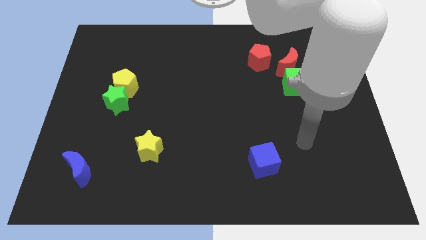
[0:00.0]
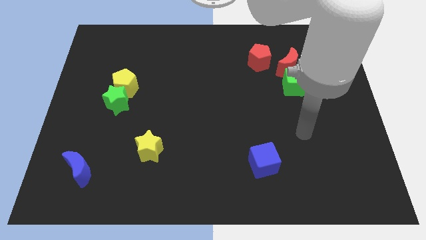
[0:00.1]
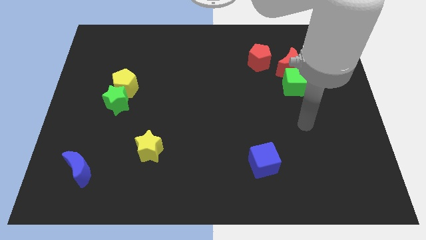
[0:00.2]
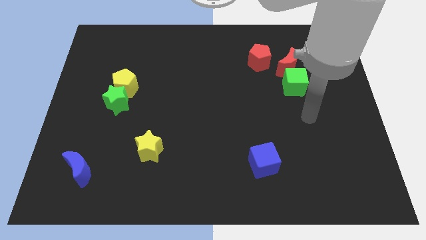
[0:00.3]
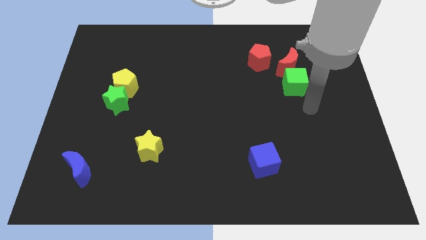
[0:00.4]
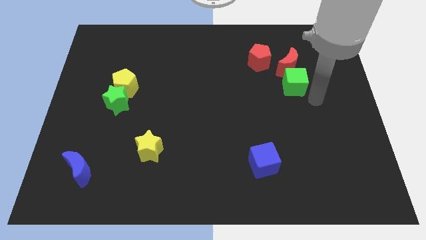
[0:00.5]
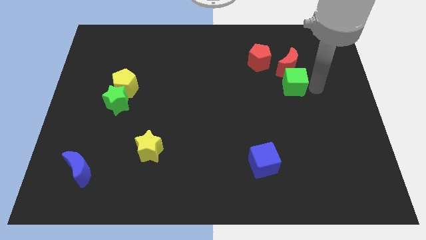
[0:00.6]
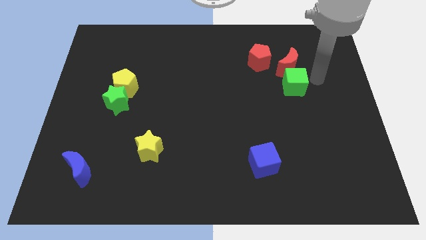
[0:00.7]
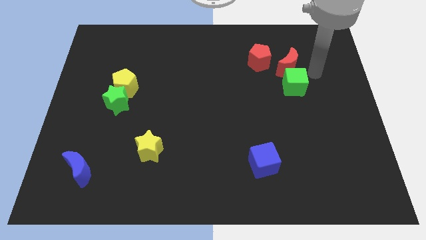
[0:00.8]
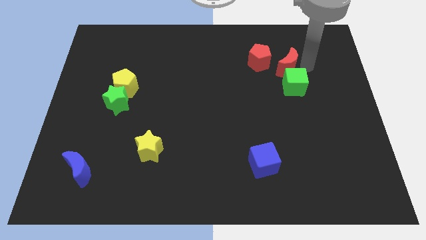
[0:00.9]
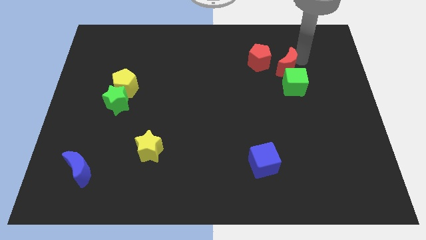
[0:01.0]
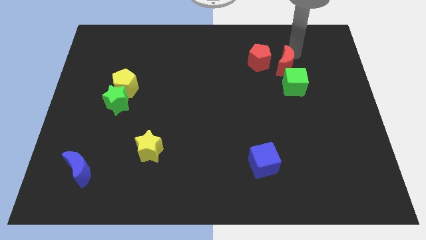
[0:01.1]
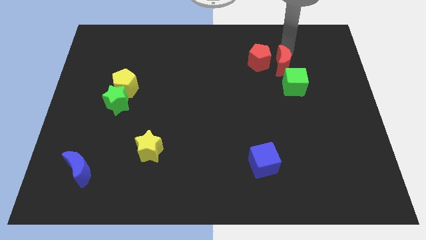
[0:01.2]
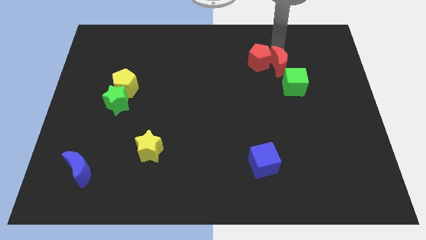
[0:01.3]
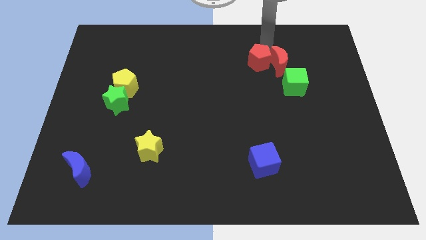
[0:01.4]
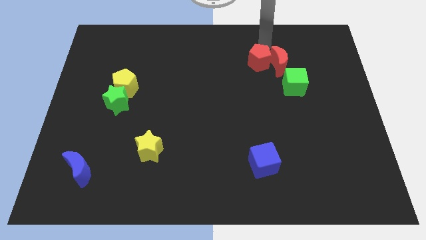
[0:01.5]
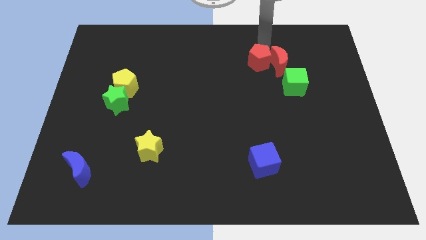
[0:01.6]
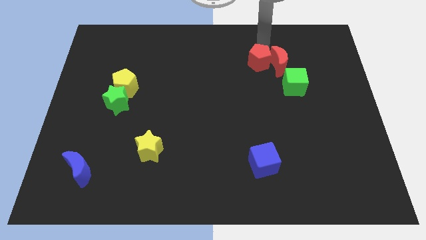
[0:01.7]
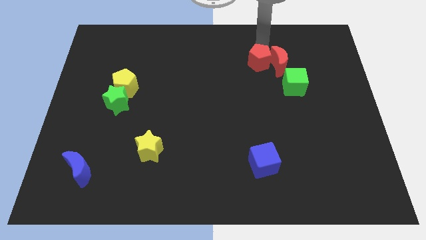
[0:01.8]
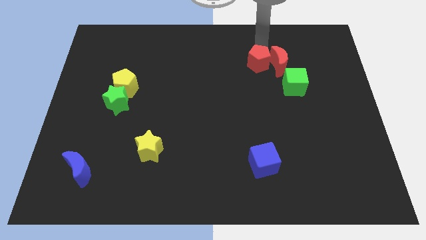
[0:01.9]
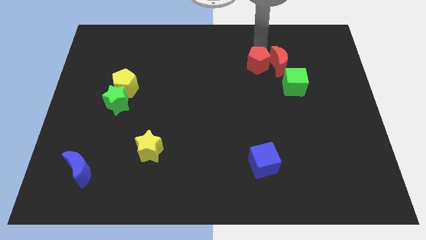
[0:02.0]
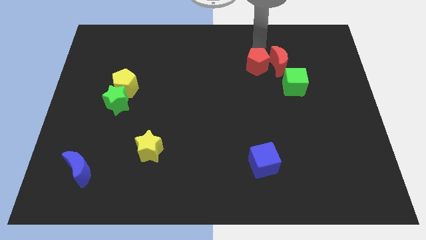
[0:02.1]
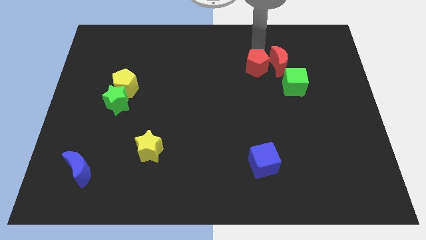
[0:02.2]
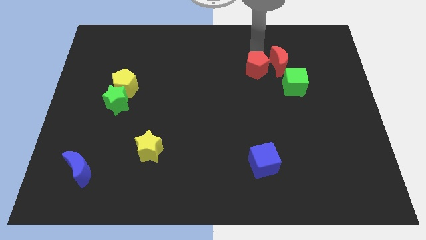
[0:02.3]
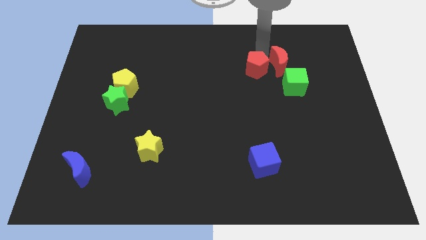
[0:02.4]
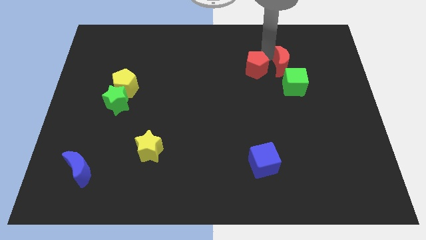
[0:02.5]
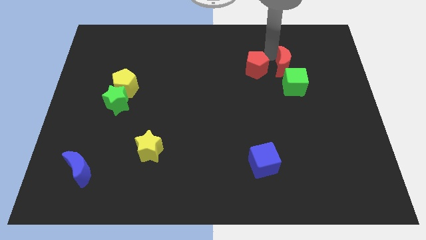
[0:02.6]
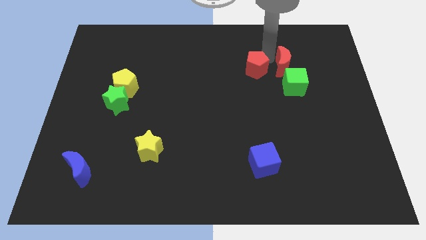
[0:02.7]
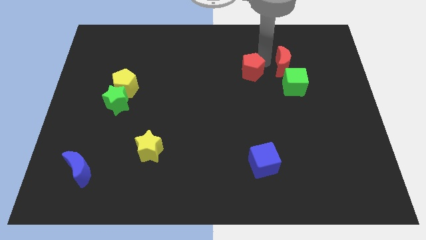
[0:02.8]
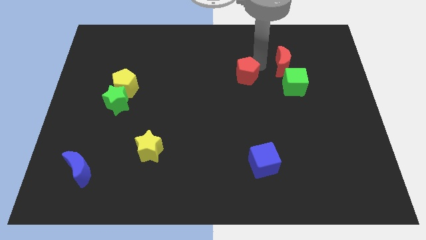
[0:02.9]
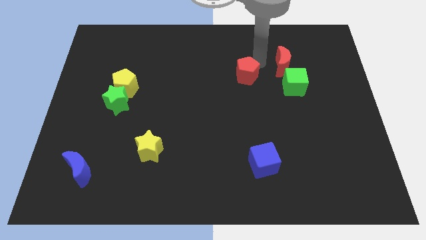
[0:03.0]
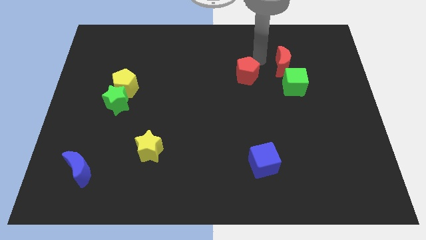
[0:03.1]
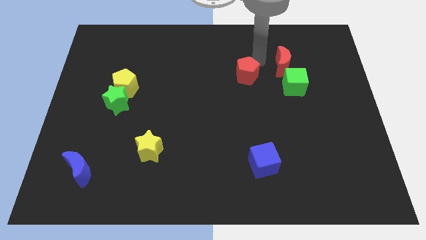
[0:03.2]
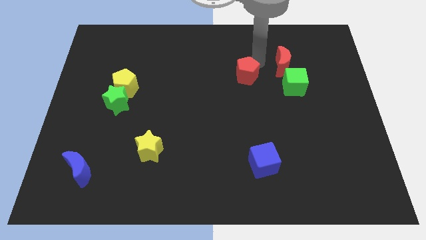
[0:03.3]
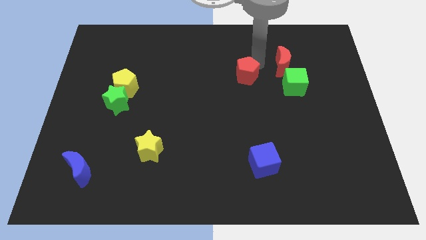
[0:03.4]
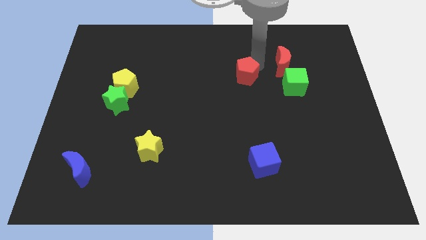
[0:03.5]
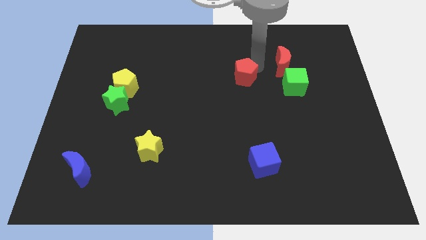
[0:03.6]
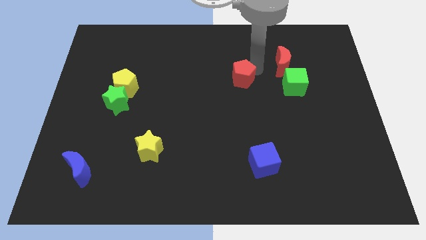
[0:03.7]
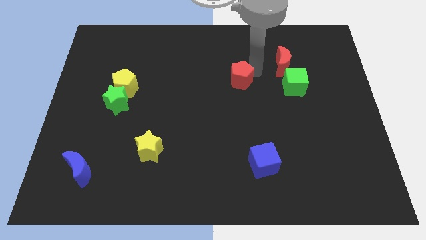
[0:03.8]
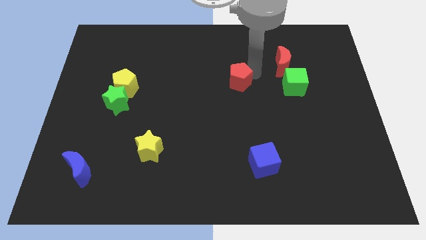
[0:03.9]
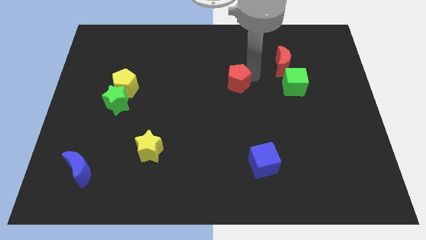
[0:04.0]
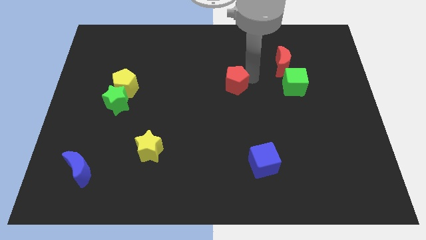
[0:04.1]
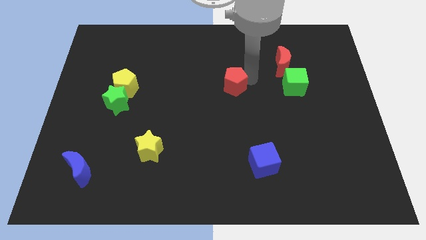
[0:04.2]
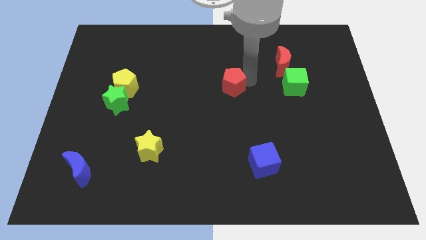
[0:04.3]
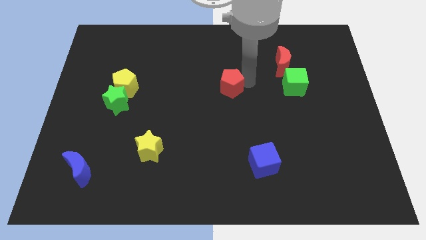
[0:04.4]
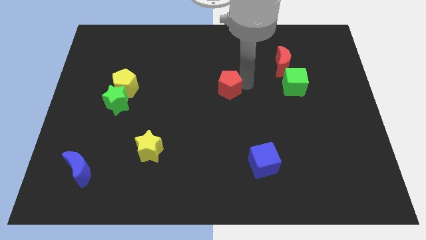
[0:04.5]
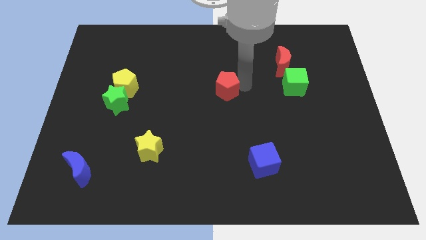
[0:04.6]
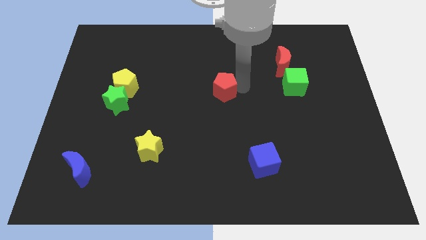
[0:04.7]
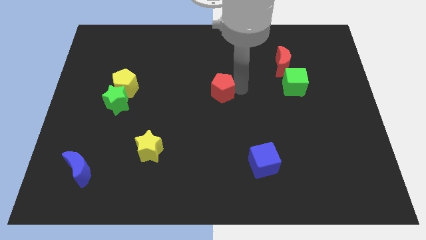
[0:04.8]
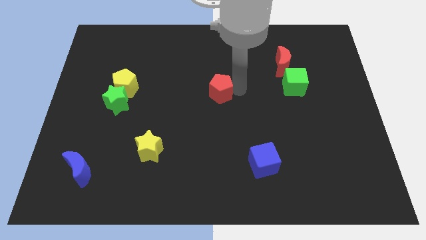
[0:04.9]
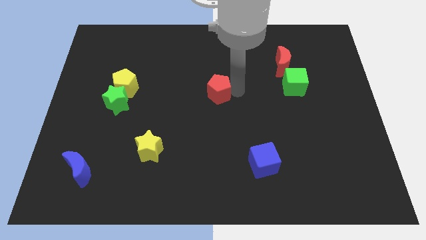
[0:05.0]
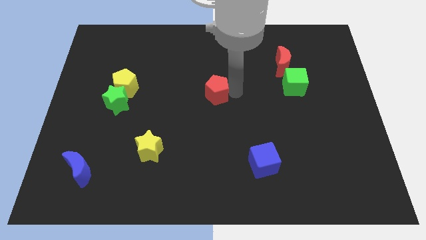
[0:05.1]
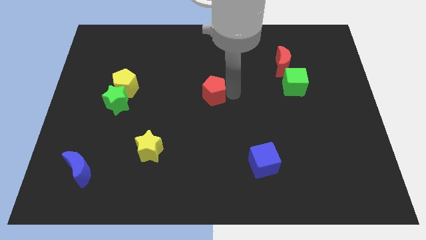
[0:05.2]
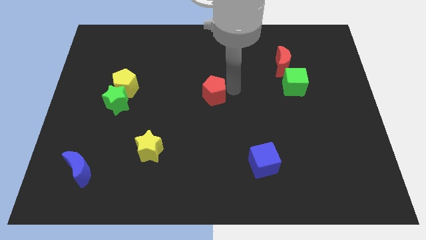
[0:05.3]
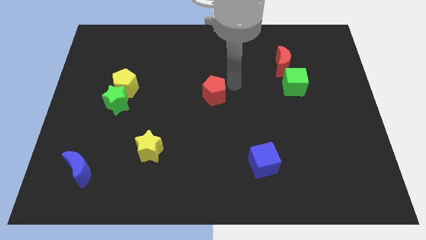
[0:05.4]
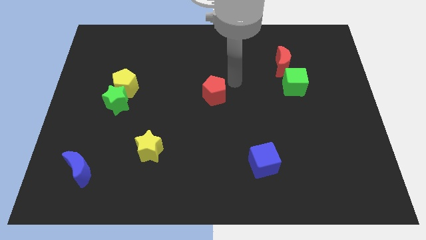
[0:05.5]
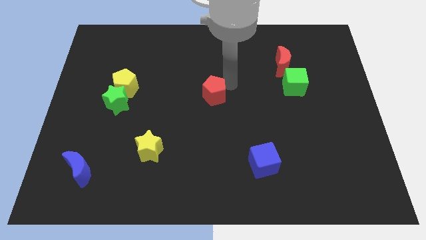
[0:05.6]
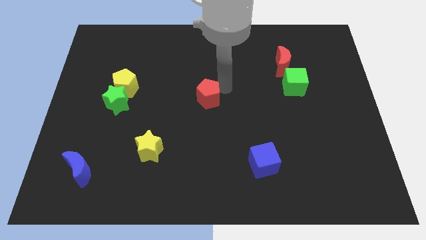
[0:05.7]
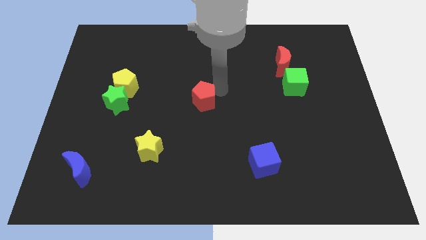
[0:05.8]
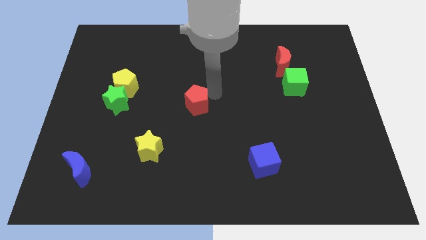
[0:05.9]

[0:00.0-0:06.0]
slide the red pentagon downwards and left

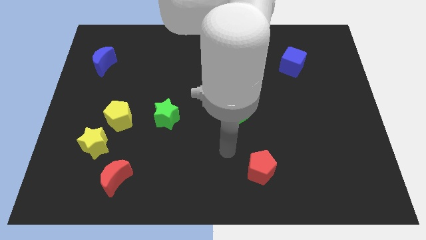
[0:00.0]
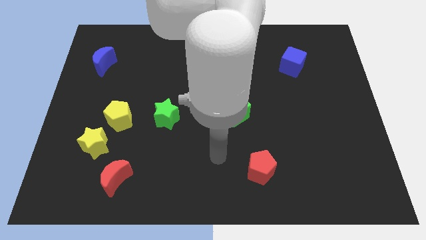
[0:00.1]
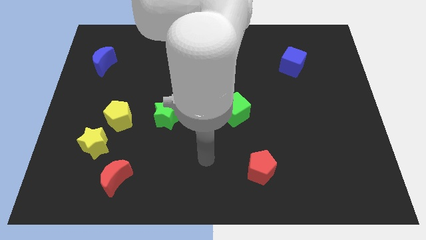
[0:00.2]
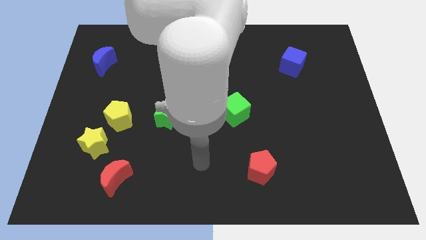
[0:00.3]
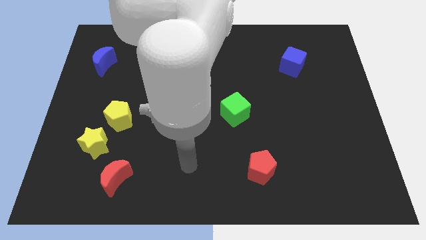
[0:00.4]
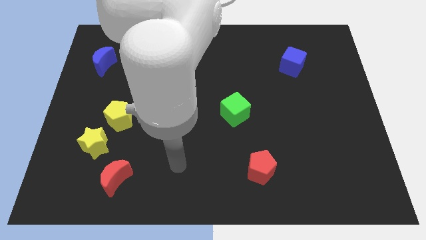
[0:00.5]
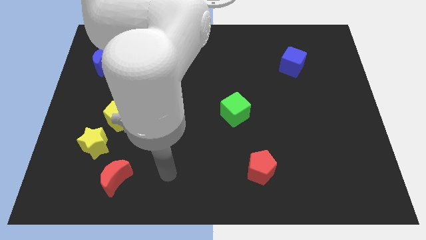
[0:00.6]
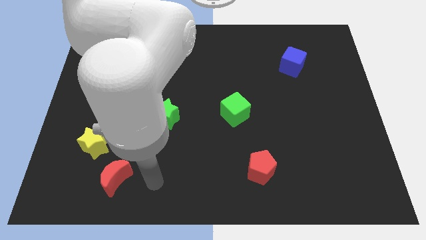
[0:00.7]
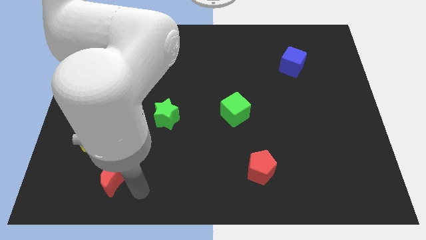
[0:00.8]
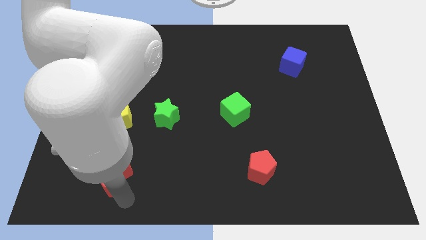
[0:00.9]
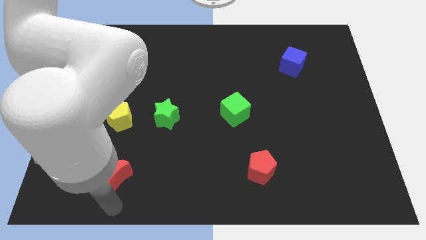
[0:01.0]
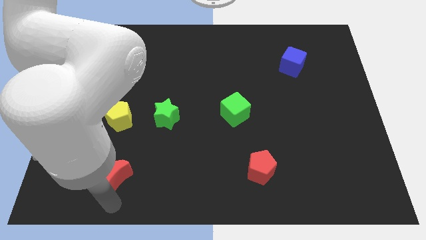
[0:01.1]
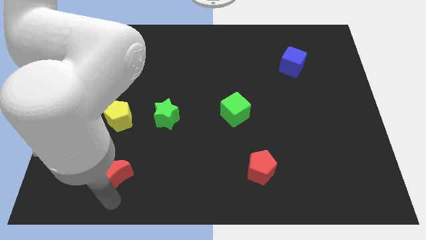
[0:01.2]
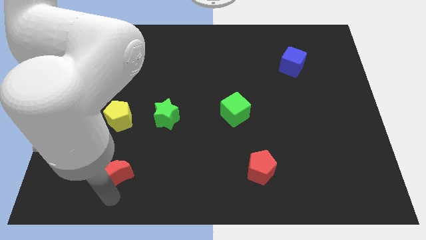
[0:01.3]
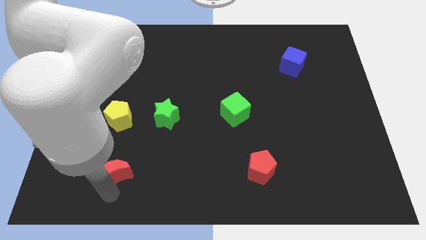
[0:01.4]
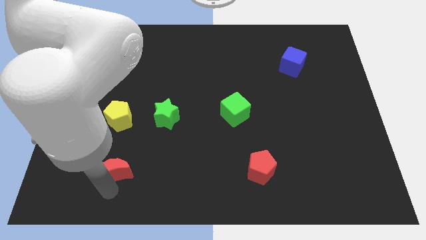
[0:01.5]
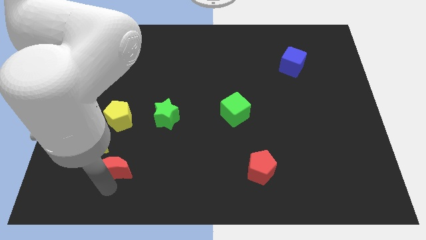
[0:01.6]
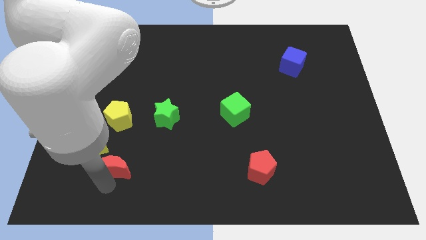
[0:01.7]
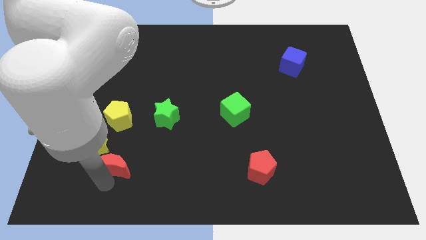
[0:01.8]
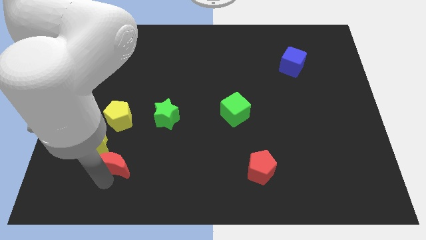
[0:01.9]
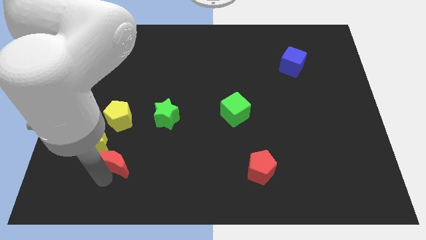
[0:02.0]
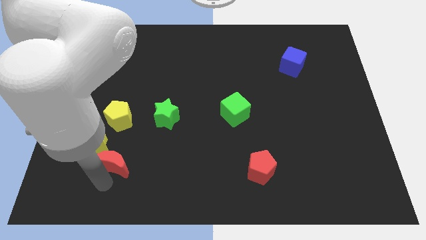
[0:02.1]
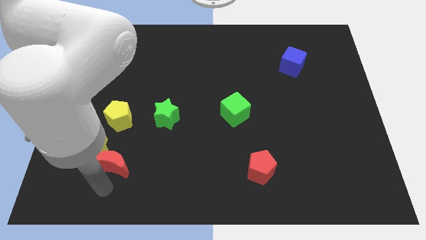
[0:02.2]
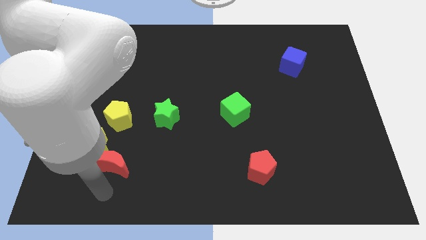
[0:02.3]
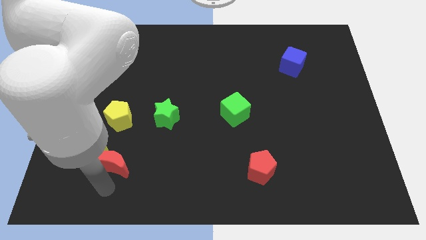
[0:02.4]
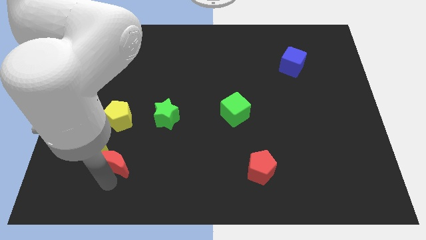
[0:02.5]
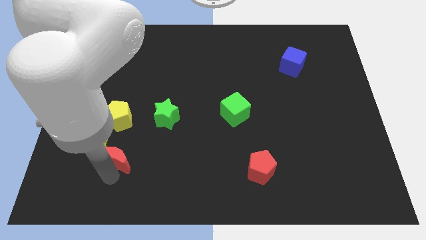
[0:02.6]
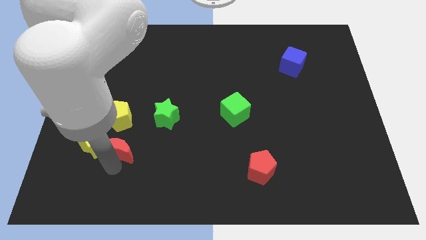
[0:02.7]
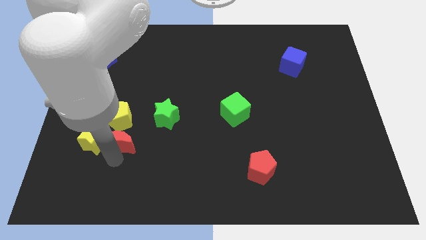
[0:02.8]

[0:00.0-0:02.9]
slightly push the red moon upwards
